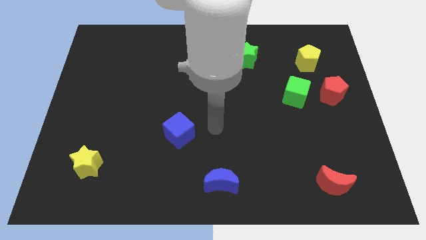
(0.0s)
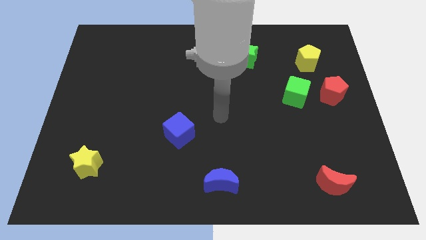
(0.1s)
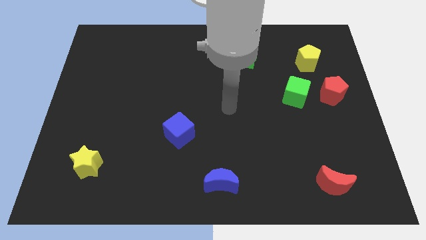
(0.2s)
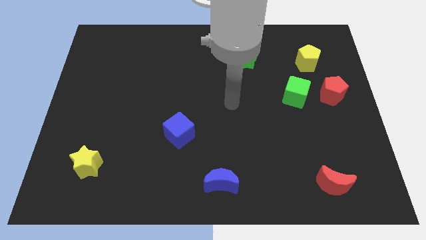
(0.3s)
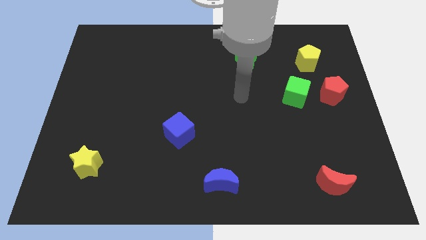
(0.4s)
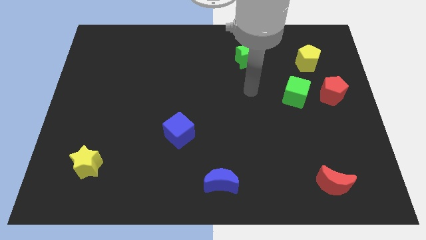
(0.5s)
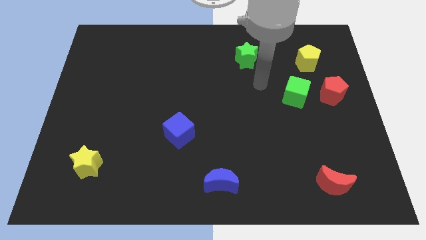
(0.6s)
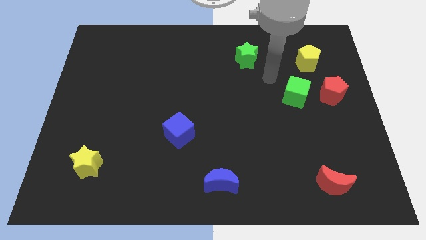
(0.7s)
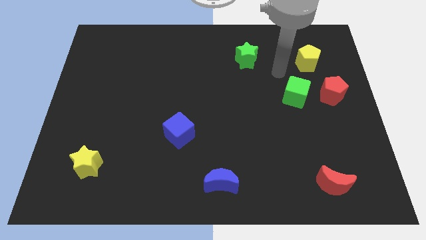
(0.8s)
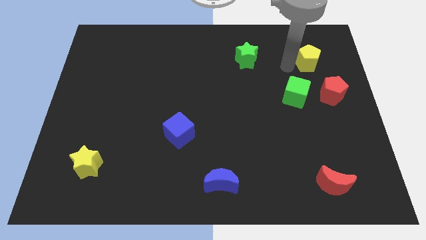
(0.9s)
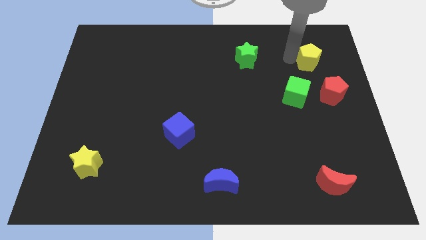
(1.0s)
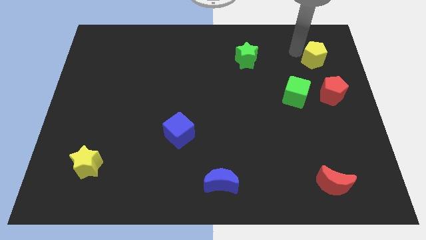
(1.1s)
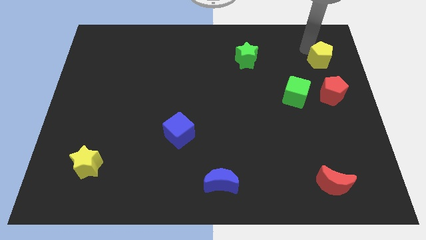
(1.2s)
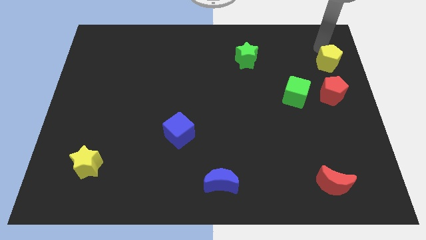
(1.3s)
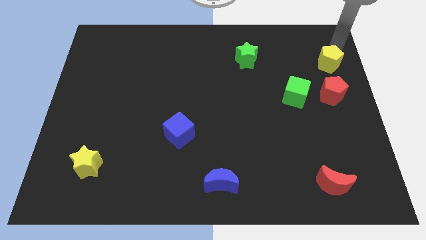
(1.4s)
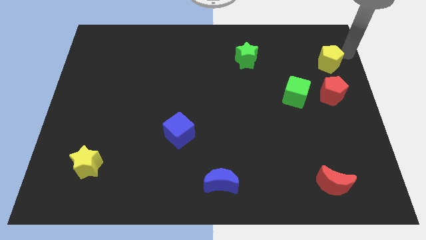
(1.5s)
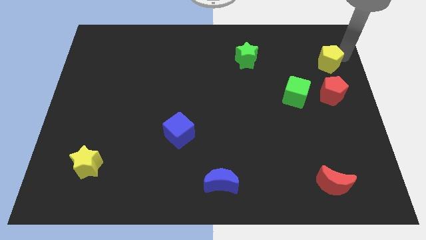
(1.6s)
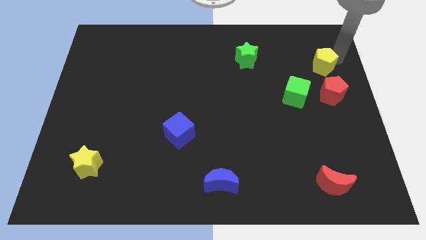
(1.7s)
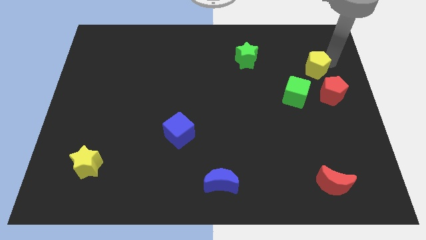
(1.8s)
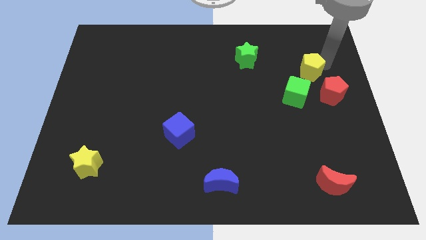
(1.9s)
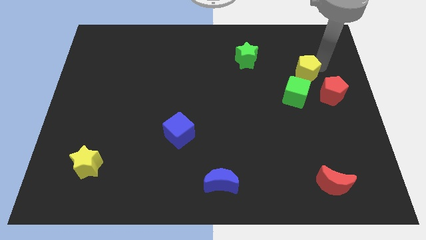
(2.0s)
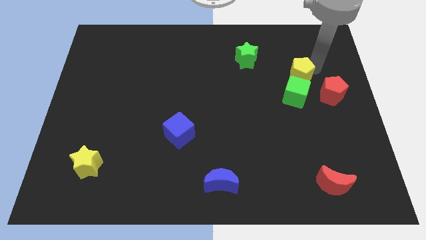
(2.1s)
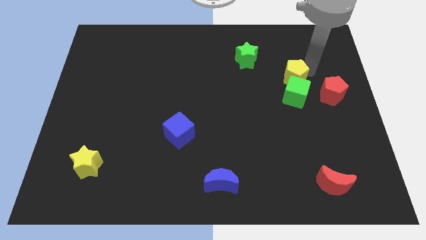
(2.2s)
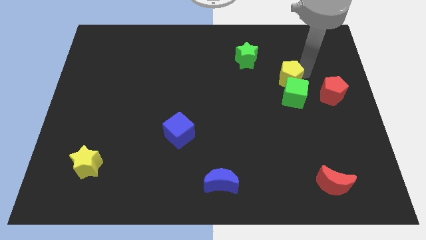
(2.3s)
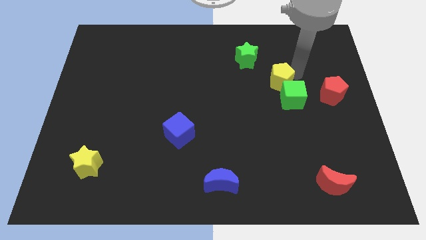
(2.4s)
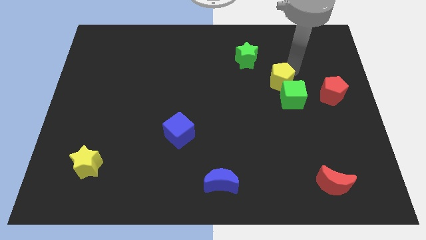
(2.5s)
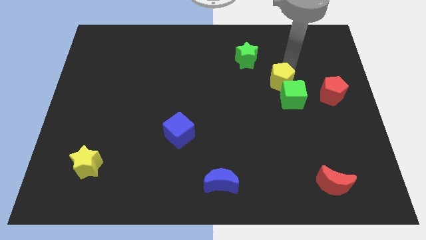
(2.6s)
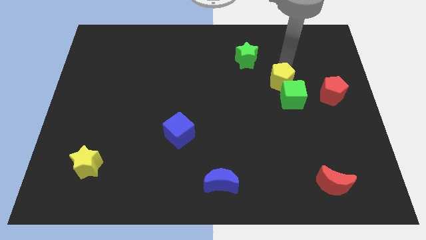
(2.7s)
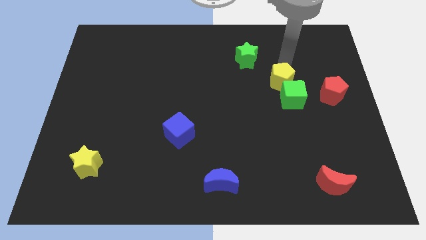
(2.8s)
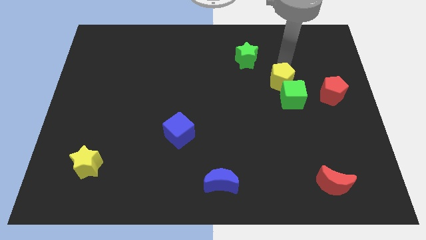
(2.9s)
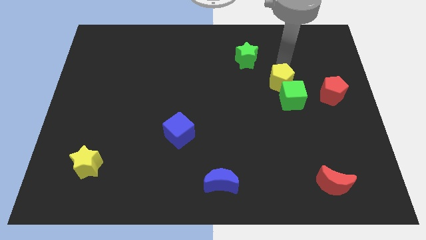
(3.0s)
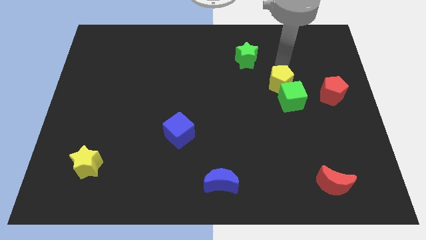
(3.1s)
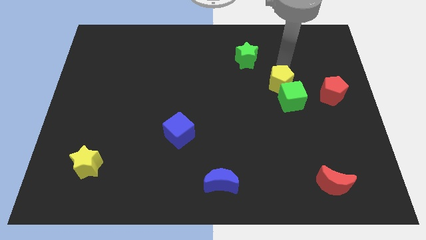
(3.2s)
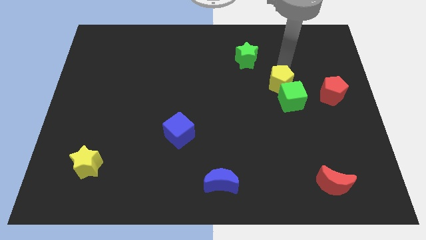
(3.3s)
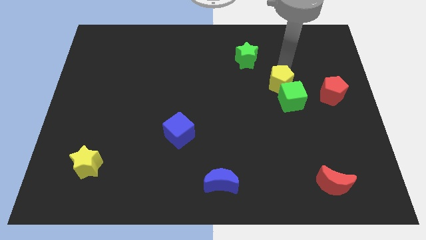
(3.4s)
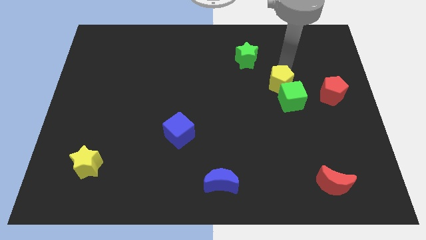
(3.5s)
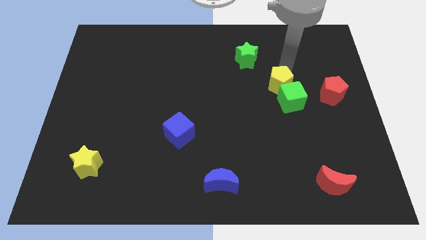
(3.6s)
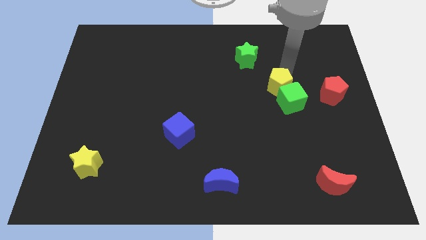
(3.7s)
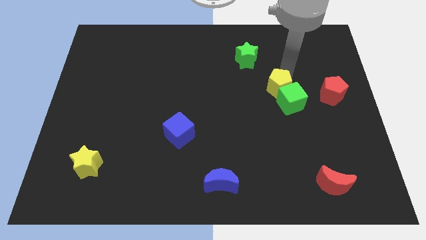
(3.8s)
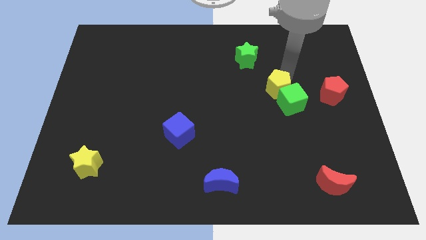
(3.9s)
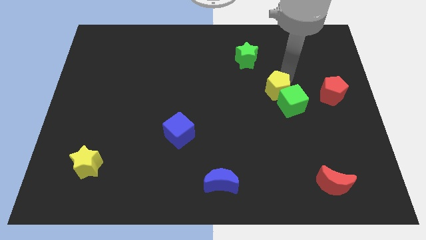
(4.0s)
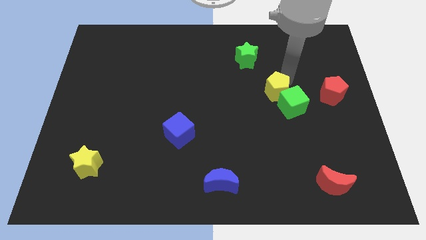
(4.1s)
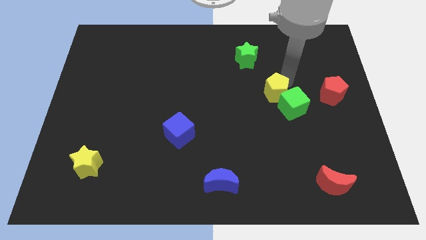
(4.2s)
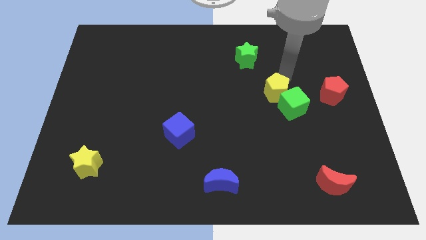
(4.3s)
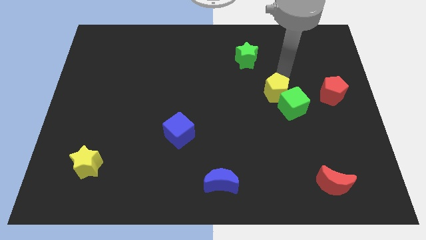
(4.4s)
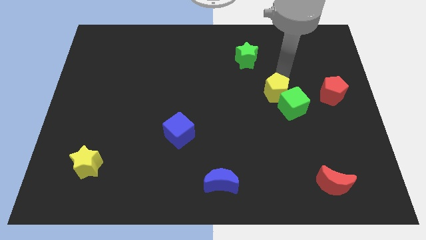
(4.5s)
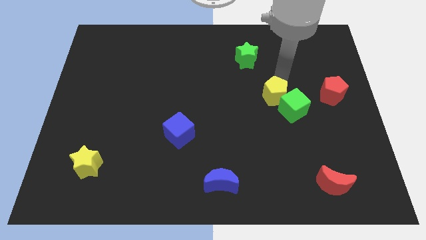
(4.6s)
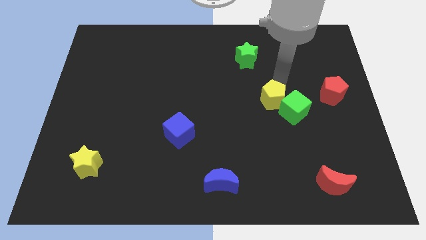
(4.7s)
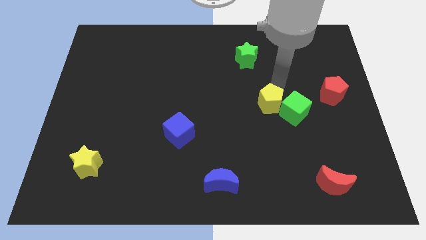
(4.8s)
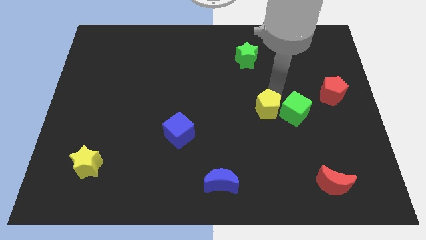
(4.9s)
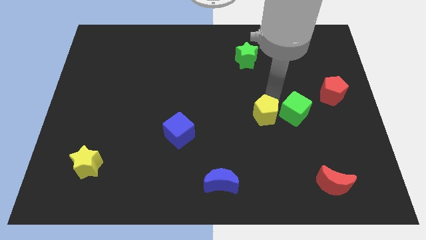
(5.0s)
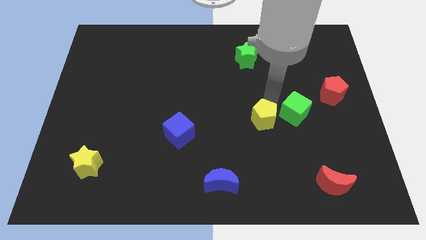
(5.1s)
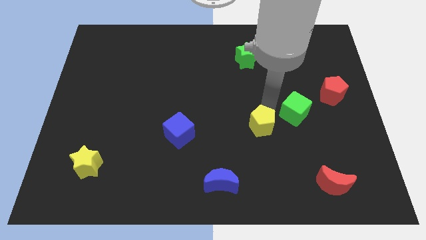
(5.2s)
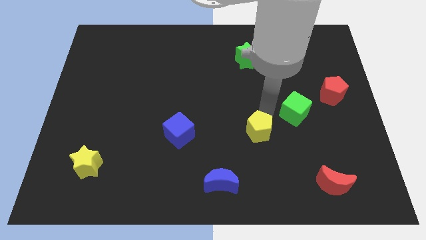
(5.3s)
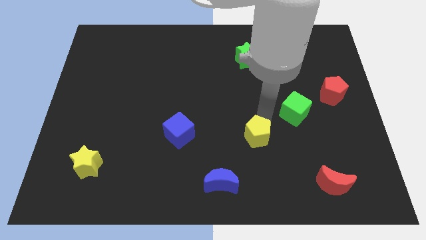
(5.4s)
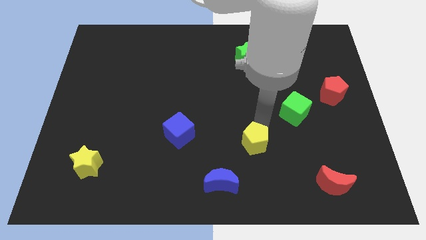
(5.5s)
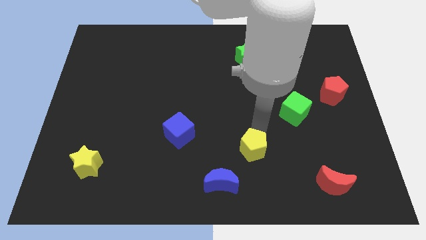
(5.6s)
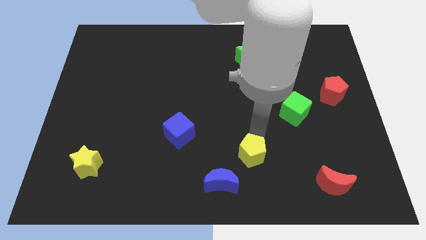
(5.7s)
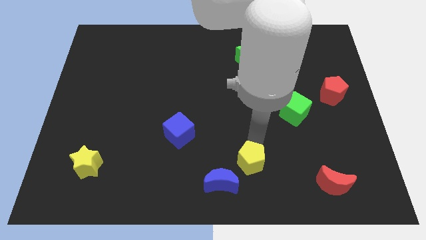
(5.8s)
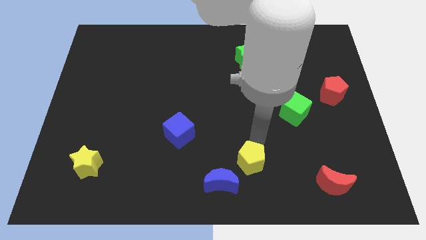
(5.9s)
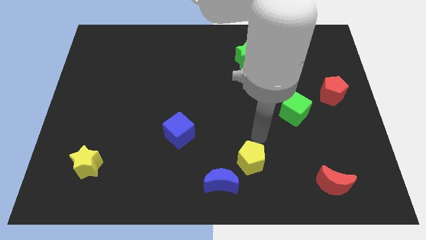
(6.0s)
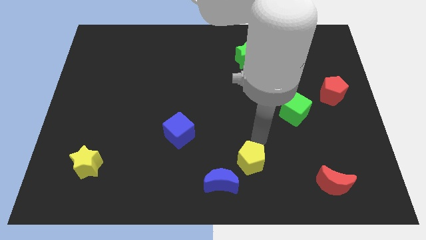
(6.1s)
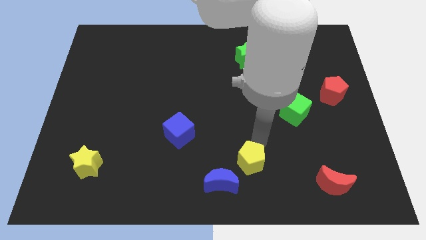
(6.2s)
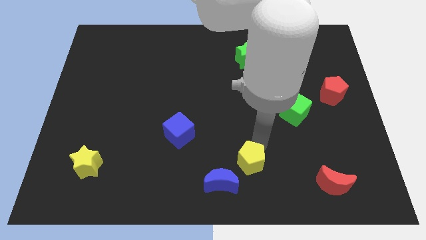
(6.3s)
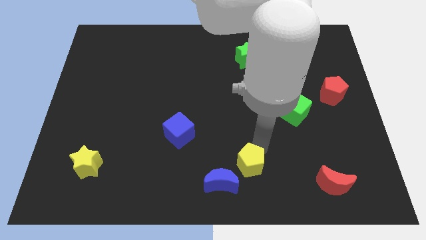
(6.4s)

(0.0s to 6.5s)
push the yellow pentagon to the bottom

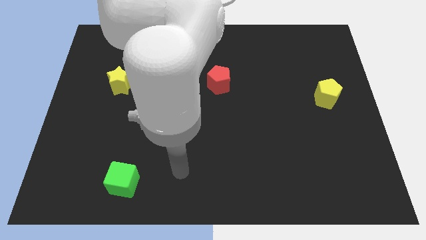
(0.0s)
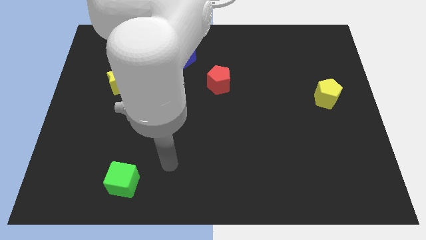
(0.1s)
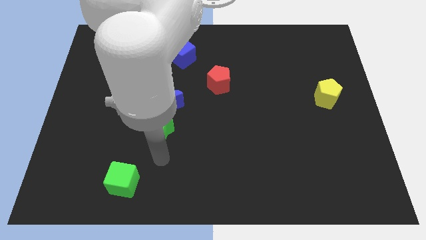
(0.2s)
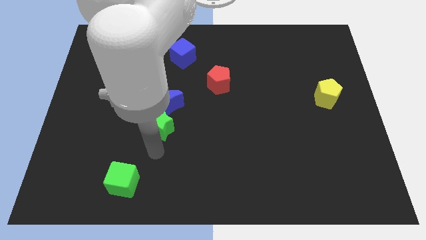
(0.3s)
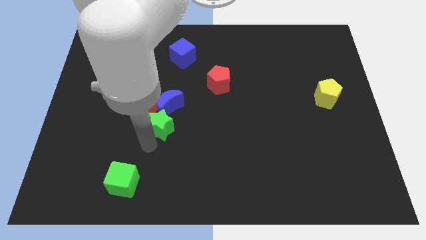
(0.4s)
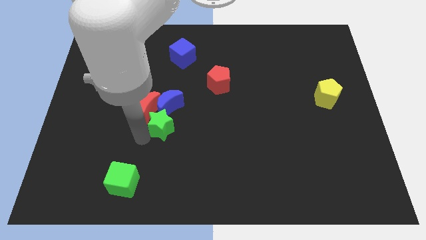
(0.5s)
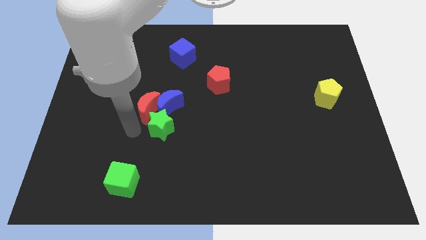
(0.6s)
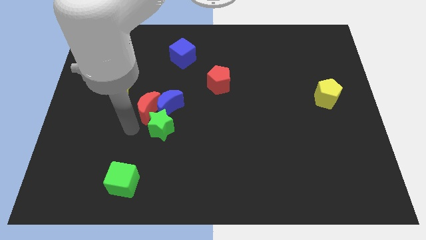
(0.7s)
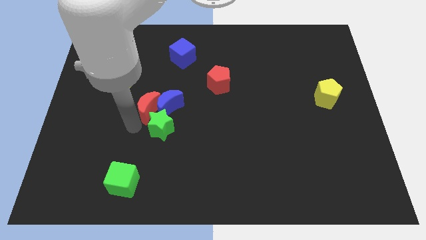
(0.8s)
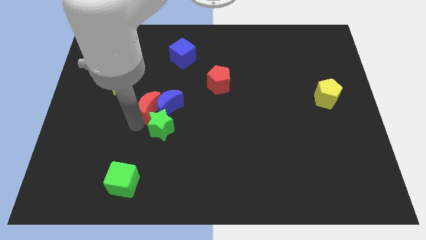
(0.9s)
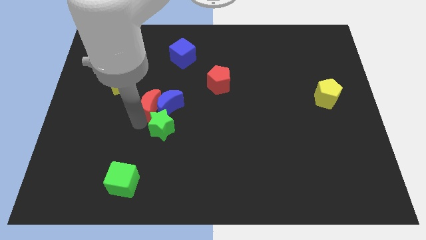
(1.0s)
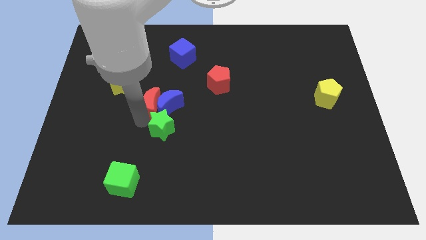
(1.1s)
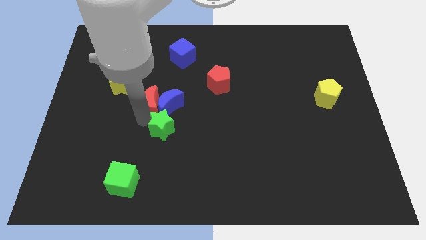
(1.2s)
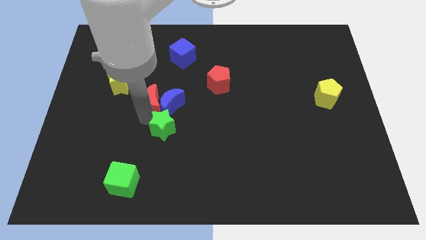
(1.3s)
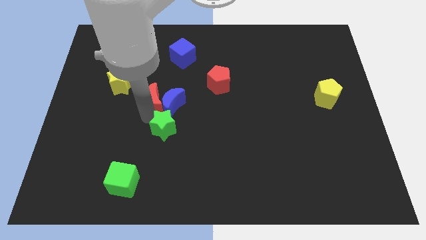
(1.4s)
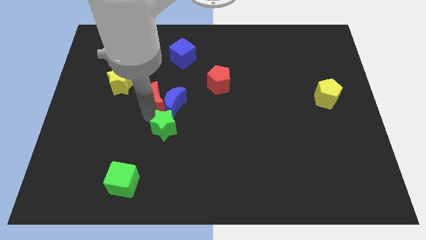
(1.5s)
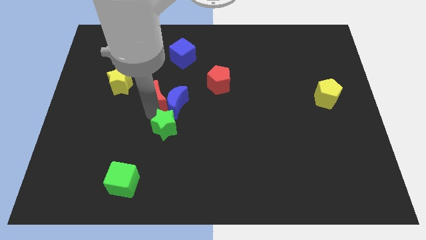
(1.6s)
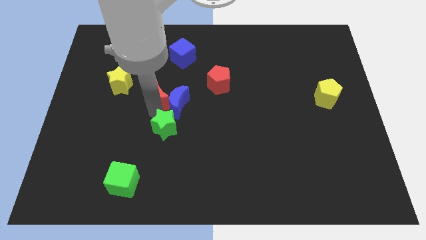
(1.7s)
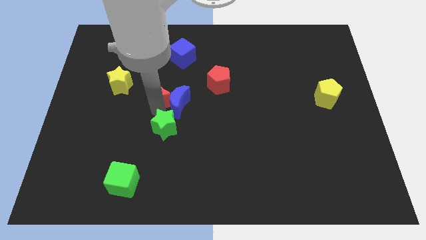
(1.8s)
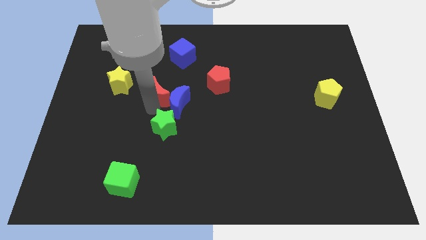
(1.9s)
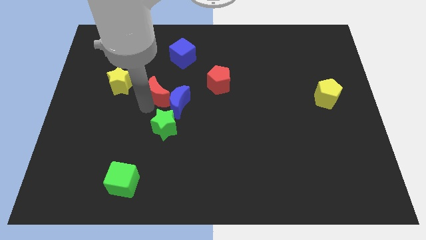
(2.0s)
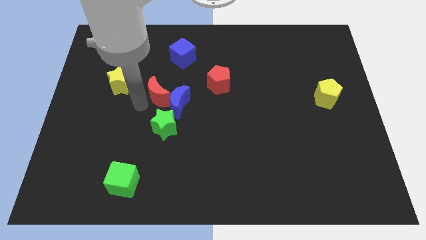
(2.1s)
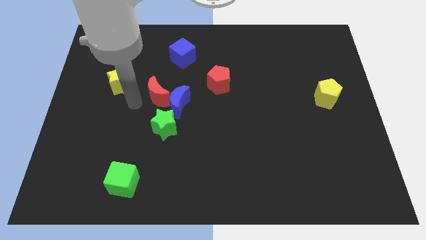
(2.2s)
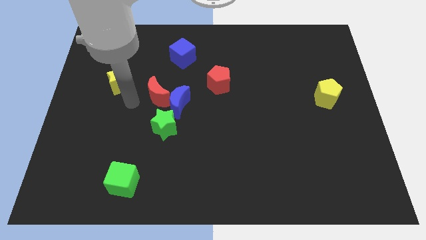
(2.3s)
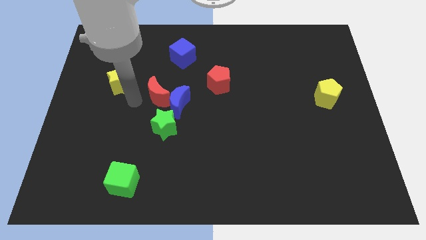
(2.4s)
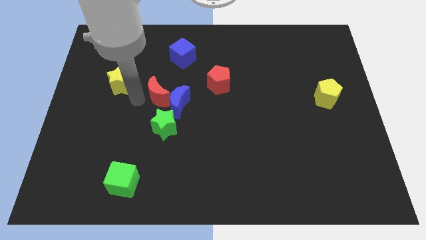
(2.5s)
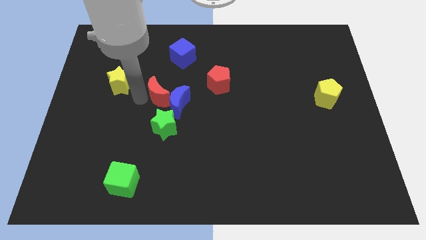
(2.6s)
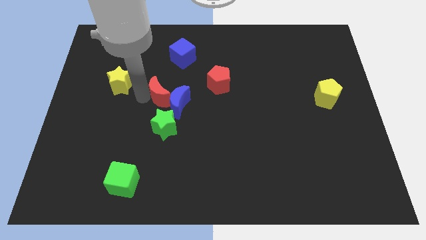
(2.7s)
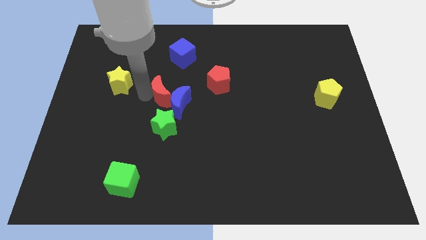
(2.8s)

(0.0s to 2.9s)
move the red moon to the center of the board
